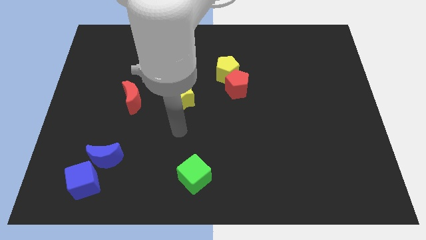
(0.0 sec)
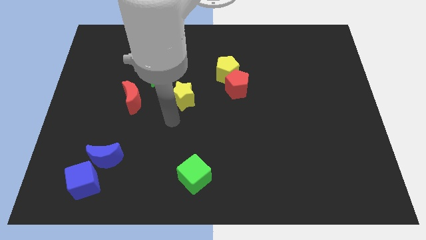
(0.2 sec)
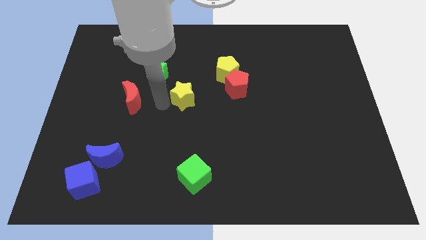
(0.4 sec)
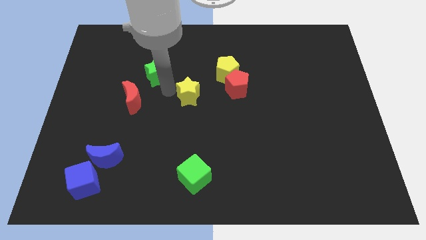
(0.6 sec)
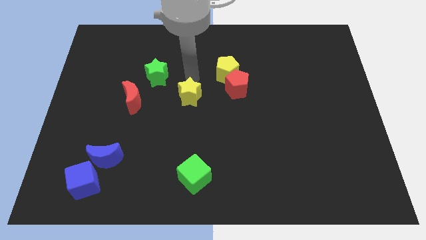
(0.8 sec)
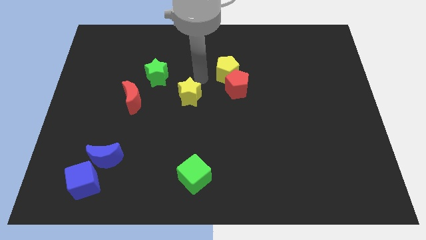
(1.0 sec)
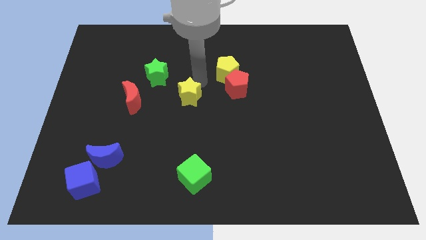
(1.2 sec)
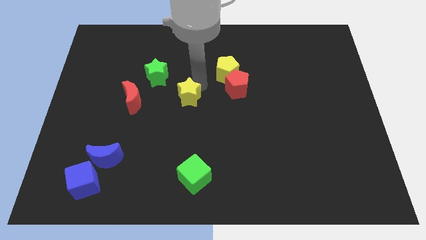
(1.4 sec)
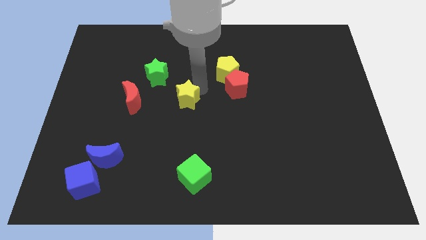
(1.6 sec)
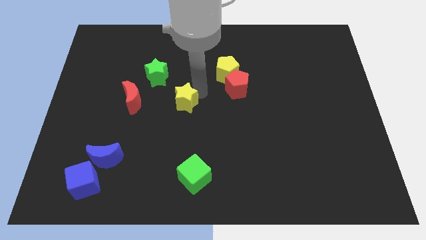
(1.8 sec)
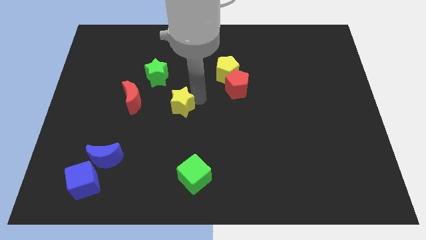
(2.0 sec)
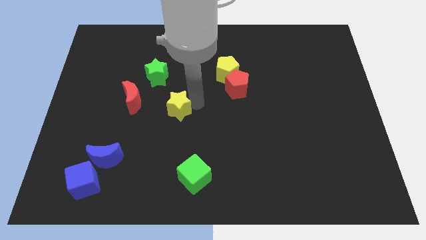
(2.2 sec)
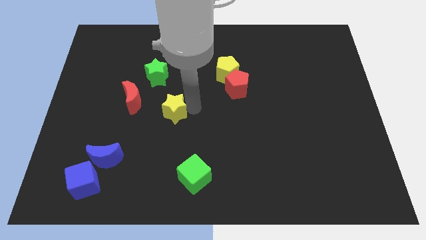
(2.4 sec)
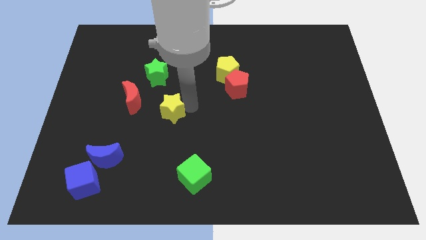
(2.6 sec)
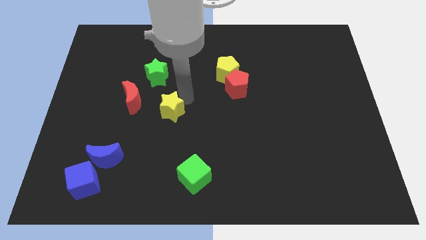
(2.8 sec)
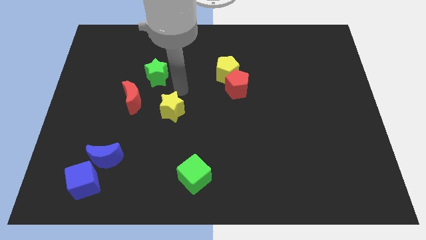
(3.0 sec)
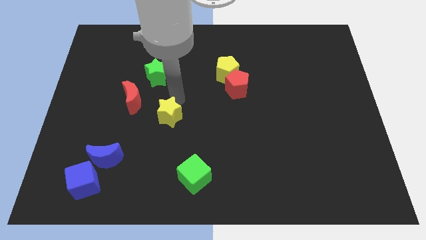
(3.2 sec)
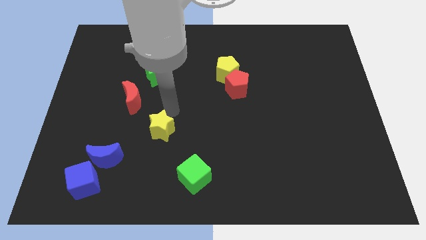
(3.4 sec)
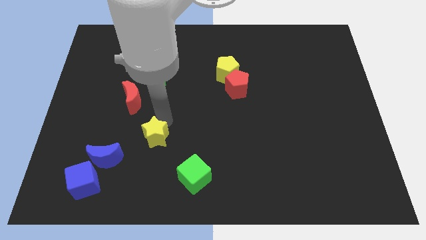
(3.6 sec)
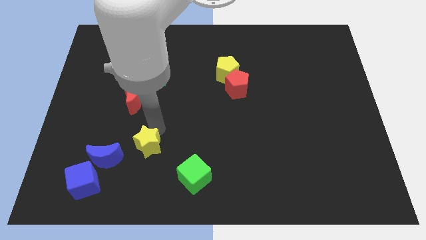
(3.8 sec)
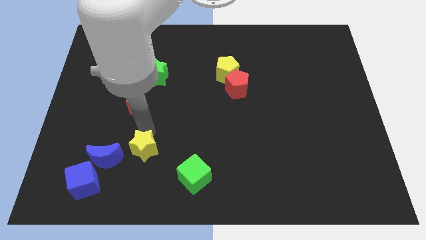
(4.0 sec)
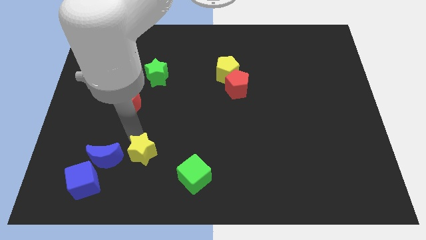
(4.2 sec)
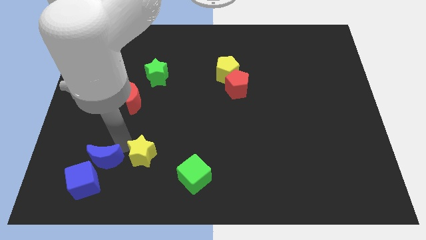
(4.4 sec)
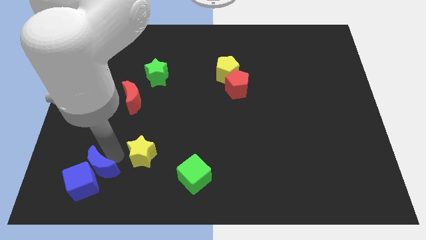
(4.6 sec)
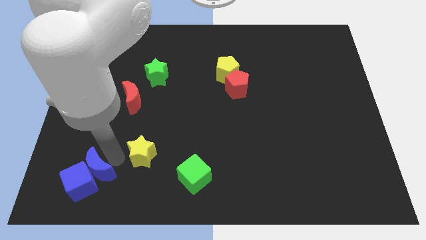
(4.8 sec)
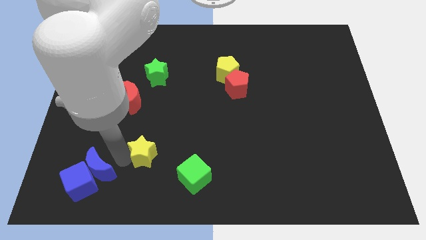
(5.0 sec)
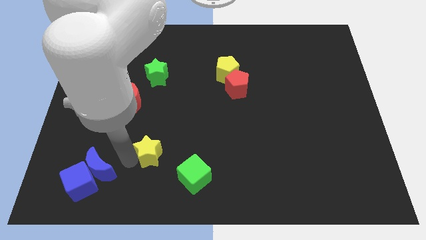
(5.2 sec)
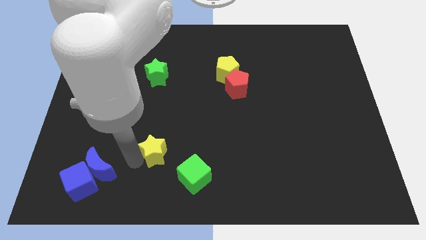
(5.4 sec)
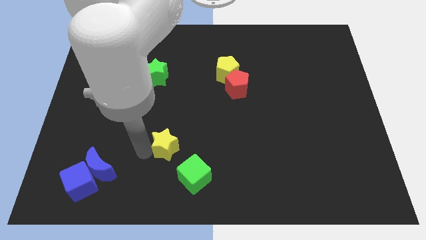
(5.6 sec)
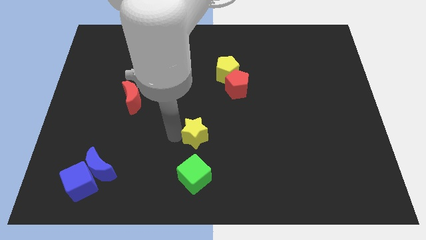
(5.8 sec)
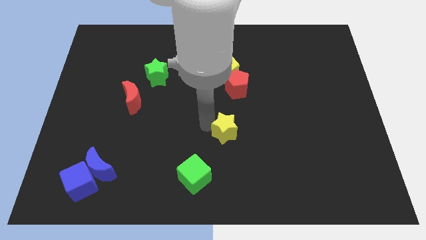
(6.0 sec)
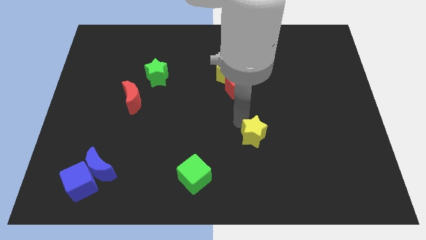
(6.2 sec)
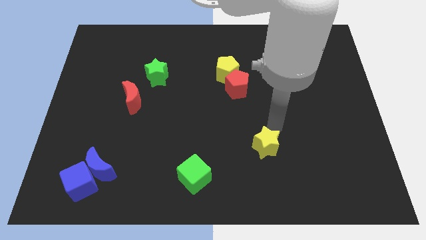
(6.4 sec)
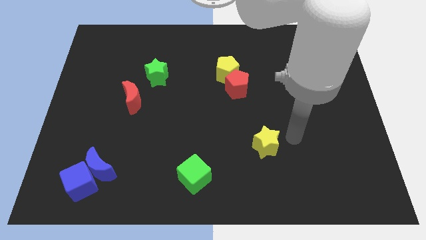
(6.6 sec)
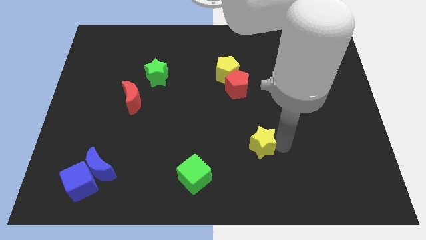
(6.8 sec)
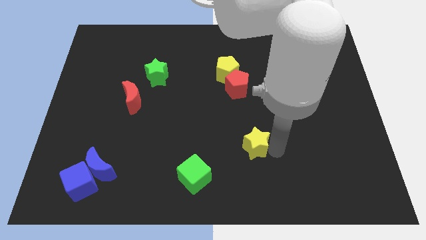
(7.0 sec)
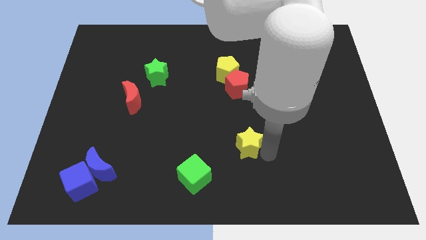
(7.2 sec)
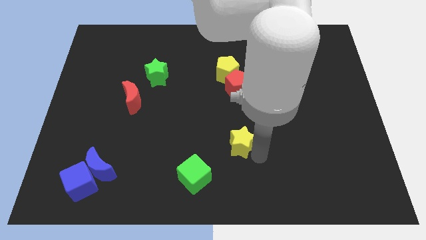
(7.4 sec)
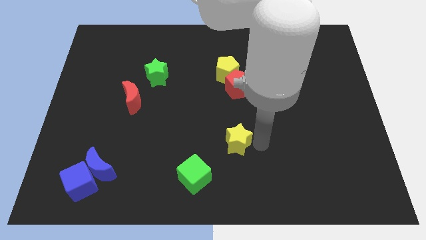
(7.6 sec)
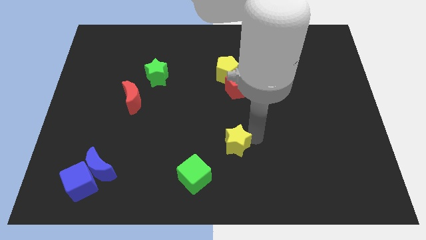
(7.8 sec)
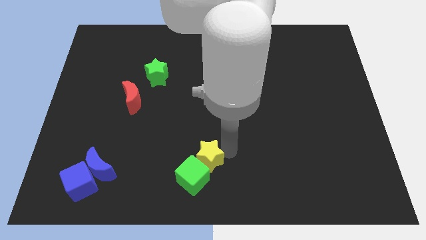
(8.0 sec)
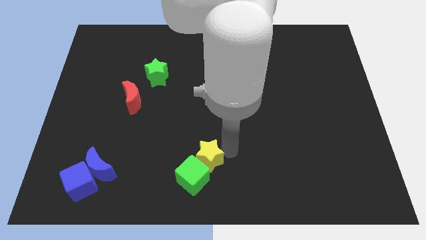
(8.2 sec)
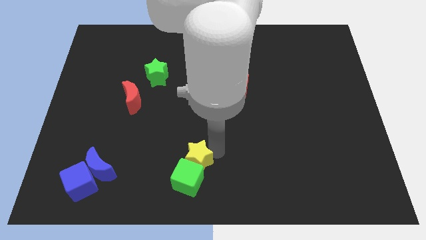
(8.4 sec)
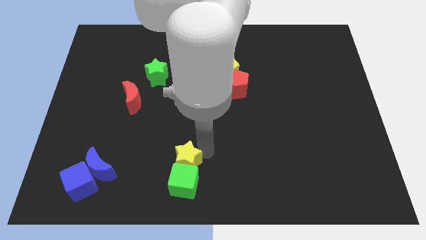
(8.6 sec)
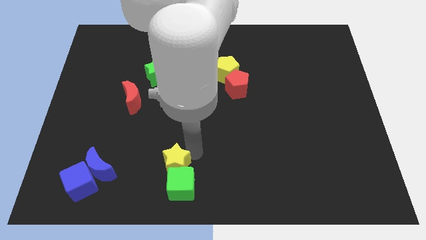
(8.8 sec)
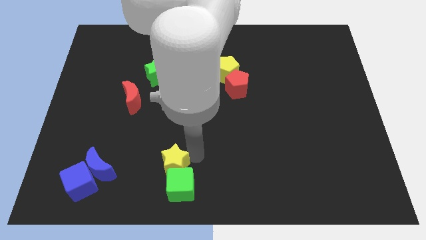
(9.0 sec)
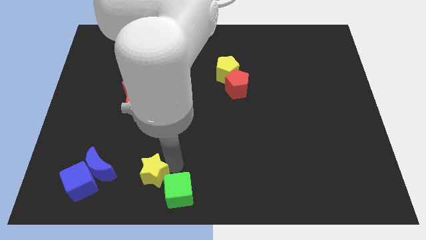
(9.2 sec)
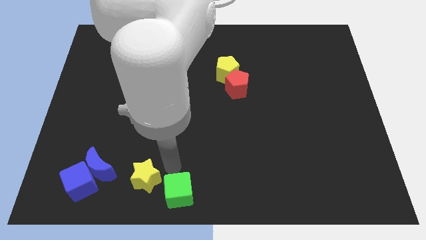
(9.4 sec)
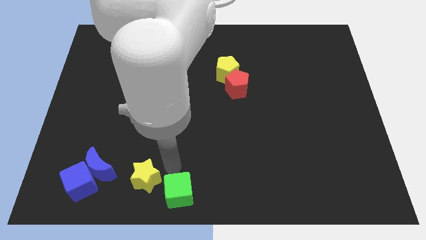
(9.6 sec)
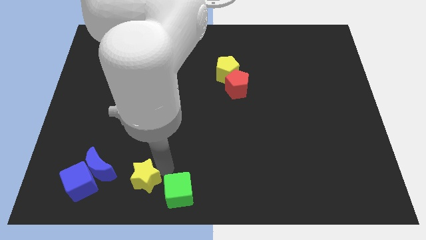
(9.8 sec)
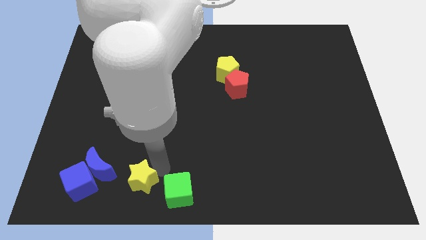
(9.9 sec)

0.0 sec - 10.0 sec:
push the yellow star to the bottom right of the blue moon

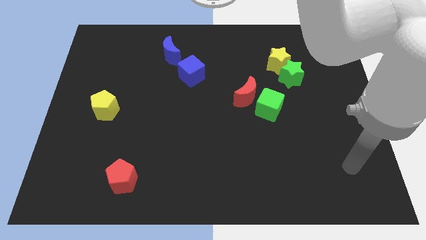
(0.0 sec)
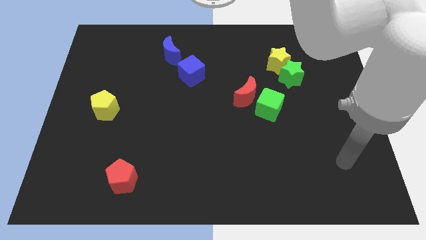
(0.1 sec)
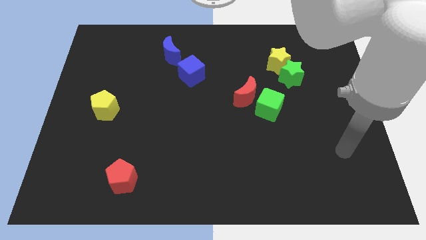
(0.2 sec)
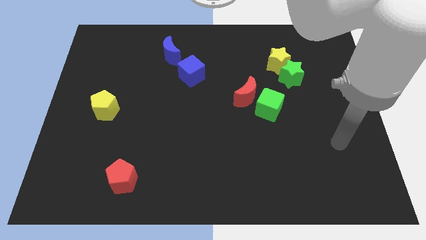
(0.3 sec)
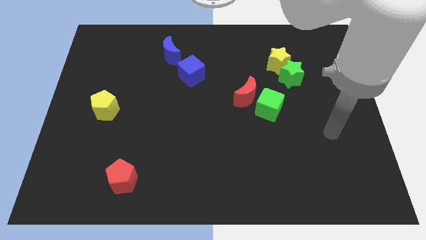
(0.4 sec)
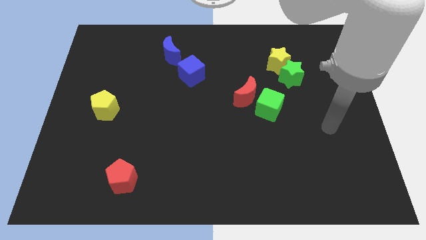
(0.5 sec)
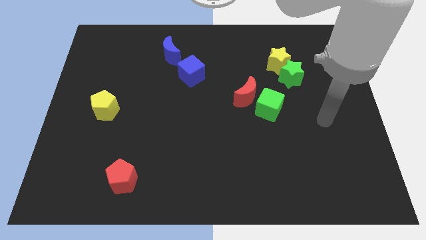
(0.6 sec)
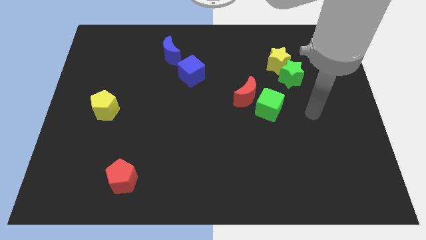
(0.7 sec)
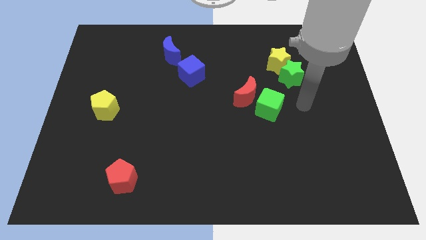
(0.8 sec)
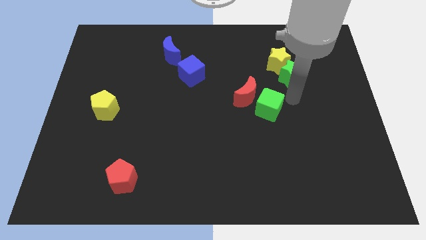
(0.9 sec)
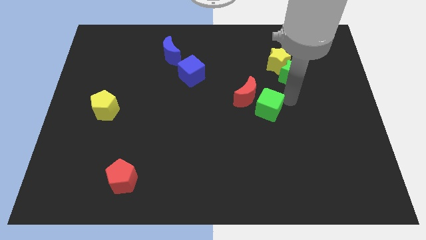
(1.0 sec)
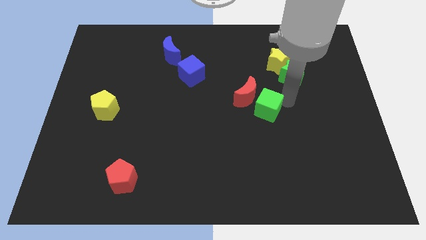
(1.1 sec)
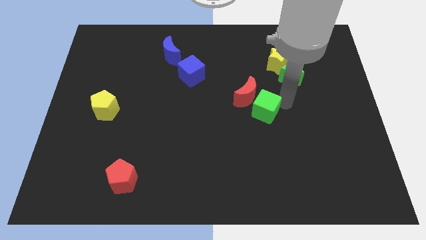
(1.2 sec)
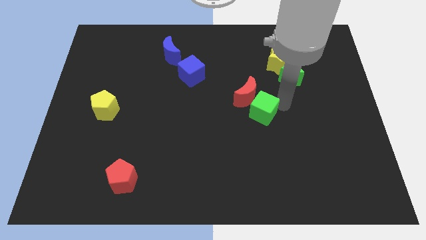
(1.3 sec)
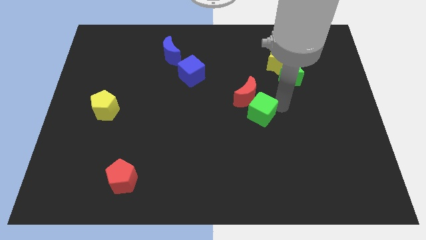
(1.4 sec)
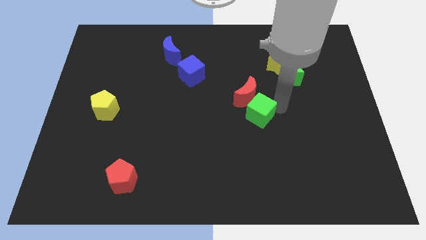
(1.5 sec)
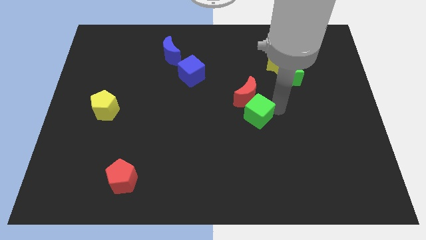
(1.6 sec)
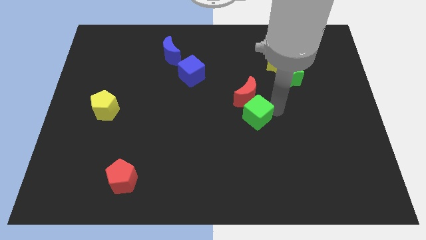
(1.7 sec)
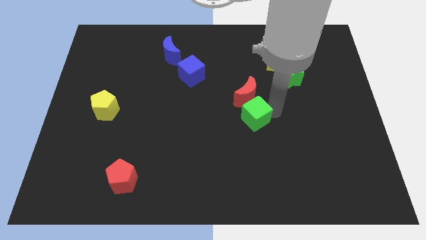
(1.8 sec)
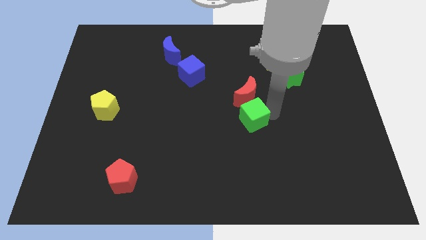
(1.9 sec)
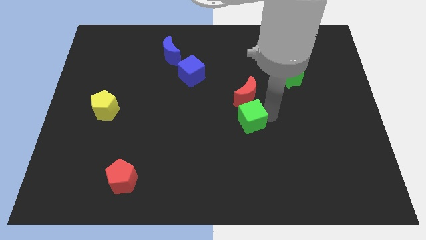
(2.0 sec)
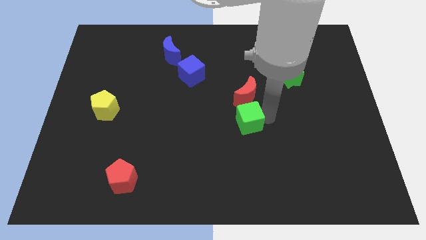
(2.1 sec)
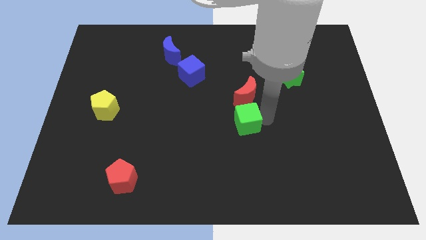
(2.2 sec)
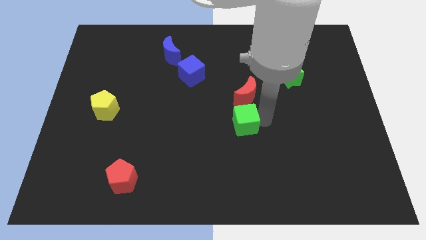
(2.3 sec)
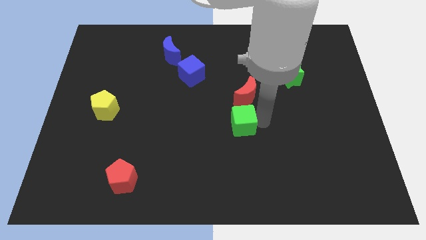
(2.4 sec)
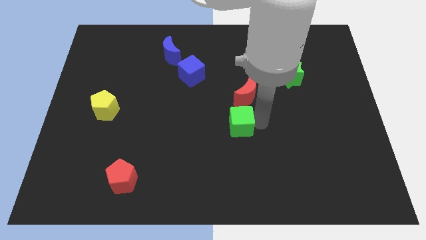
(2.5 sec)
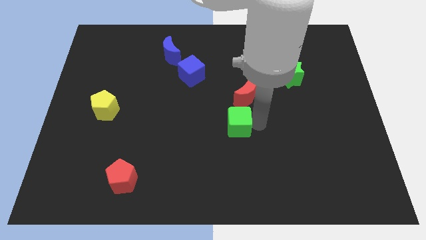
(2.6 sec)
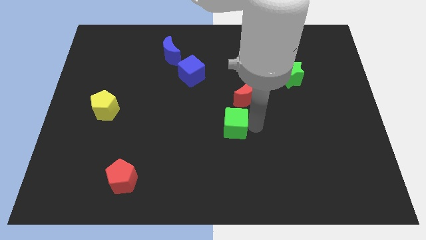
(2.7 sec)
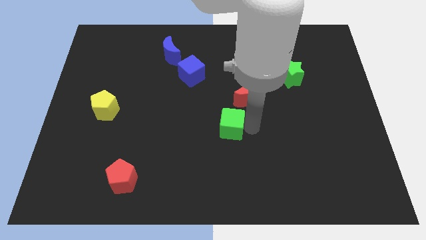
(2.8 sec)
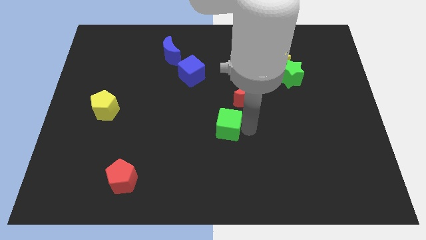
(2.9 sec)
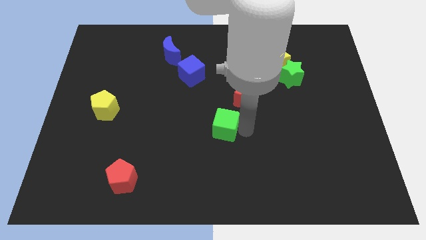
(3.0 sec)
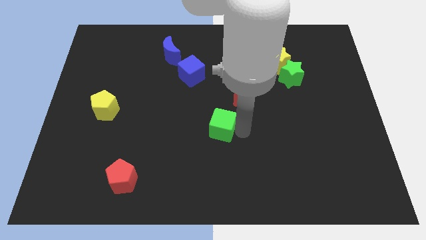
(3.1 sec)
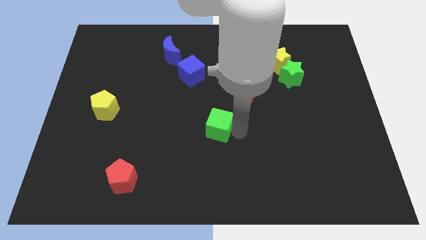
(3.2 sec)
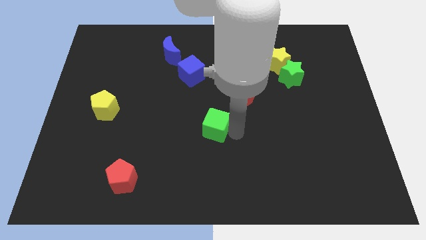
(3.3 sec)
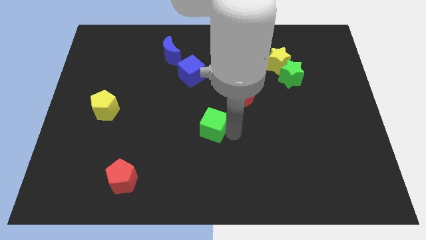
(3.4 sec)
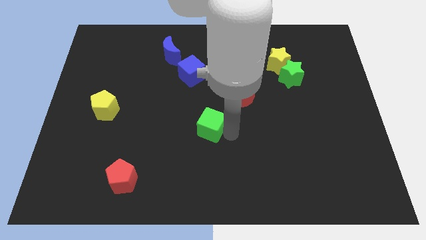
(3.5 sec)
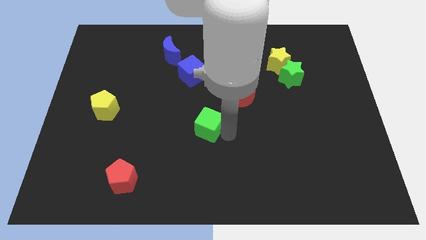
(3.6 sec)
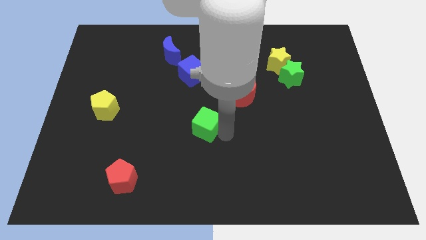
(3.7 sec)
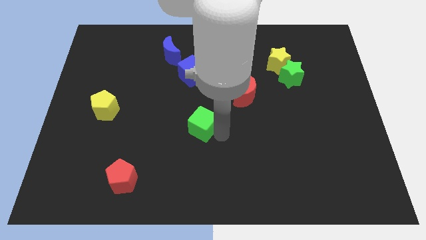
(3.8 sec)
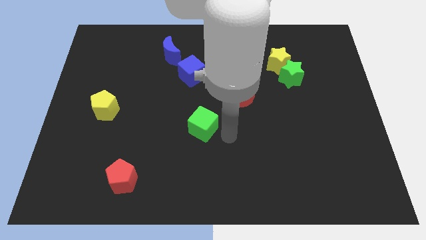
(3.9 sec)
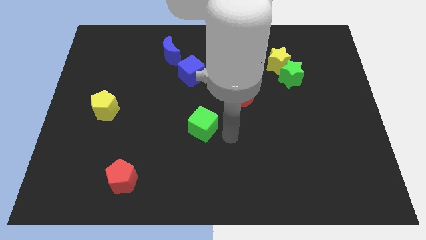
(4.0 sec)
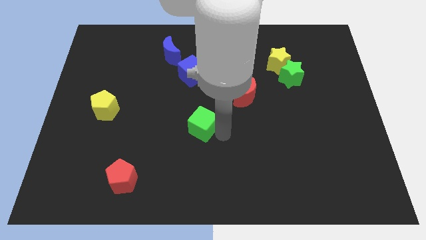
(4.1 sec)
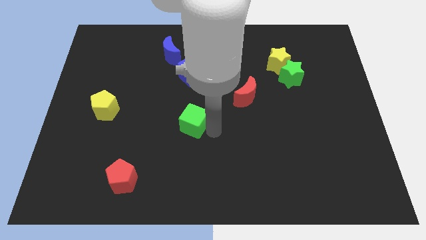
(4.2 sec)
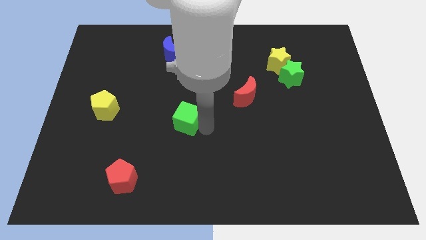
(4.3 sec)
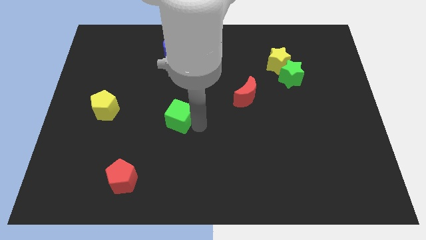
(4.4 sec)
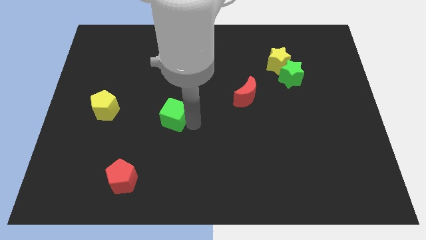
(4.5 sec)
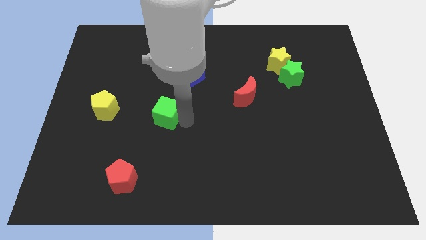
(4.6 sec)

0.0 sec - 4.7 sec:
put the green cube right of the yellow pentagon
